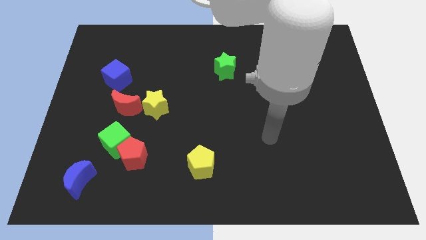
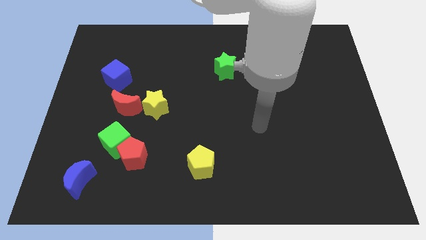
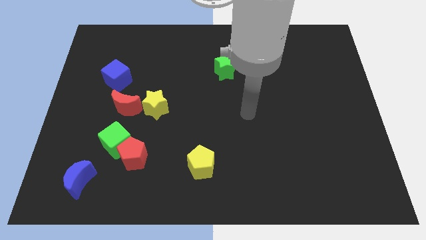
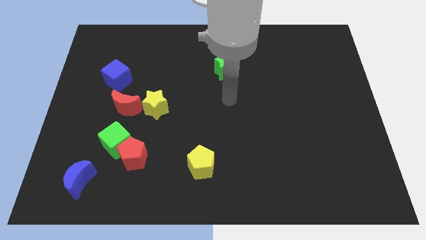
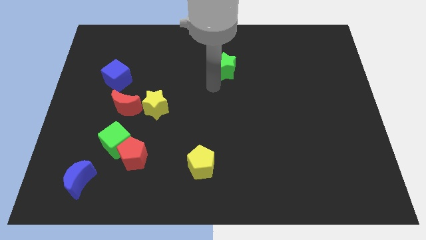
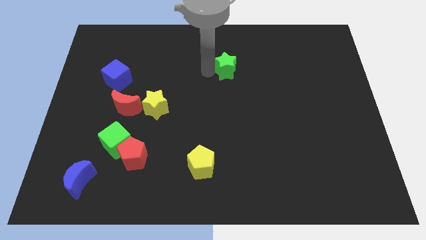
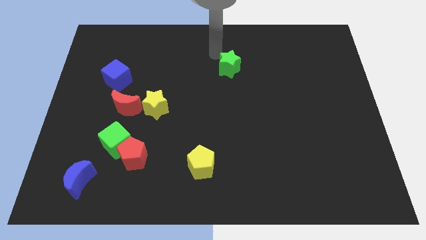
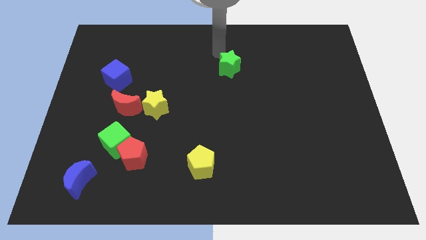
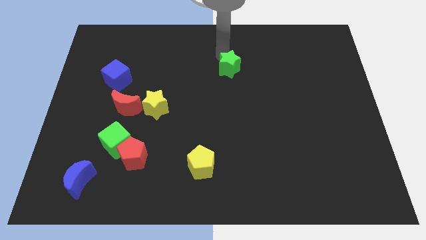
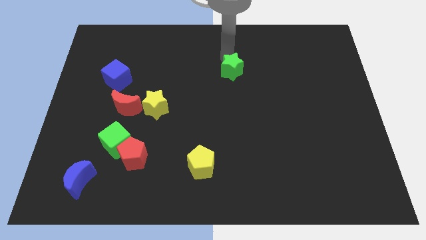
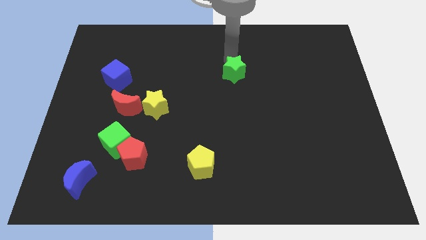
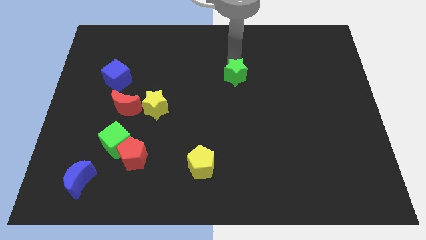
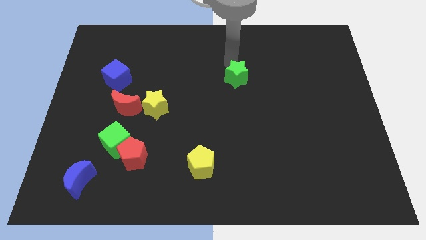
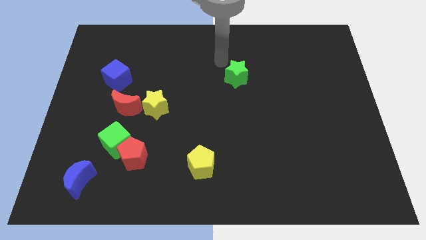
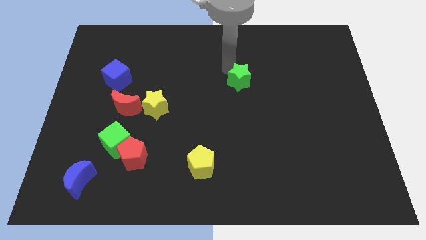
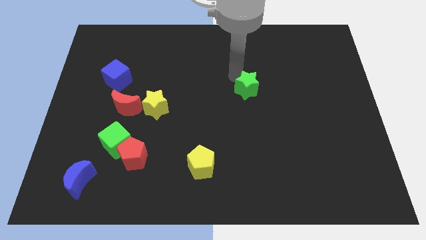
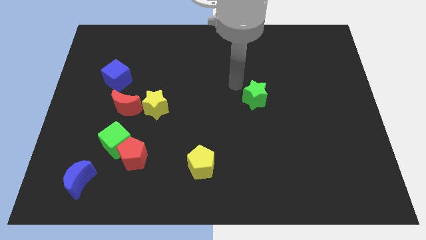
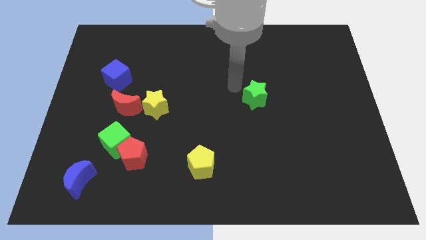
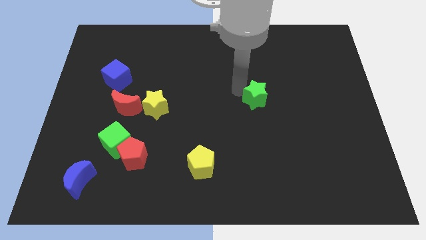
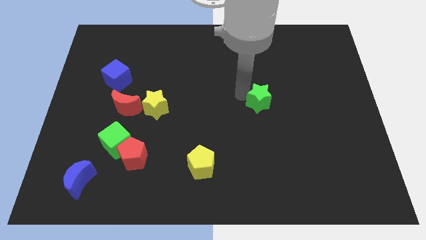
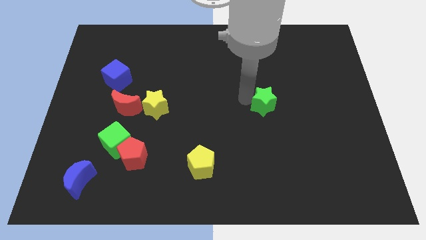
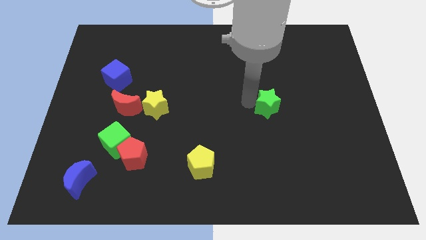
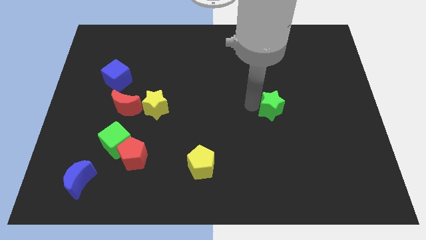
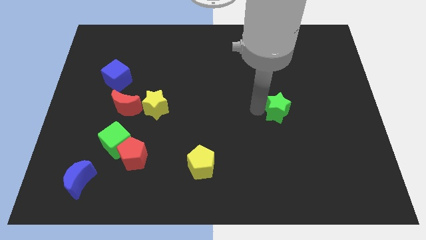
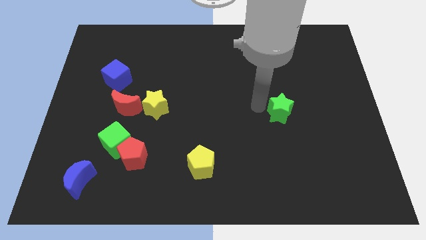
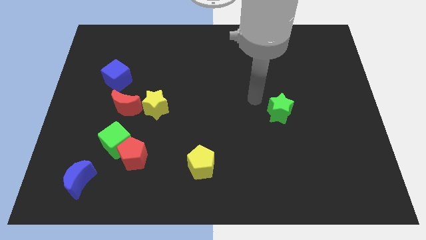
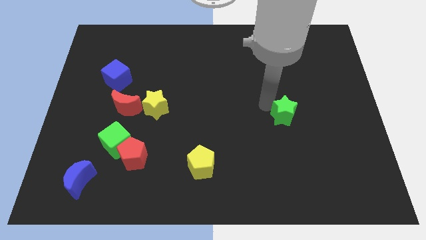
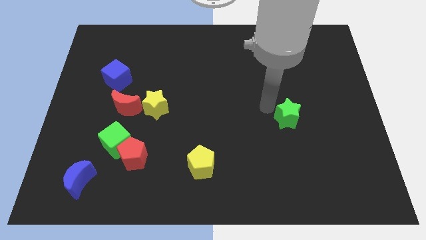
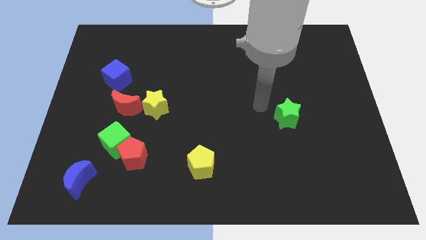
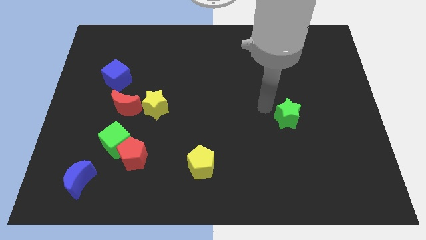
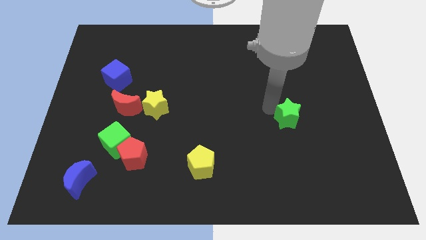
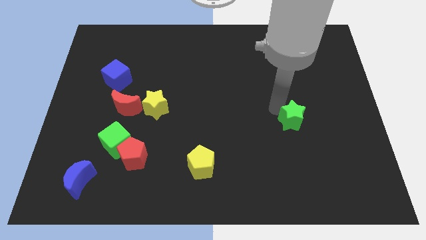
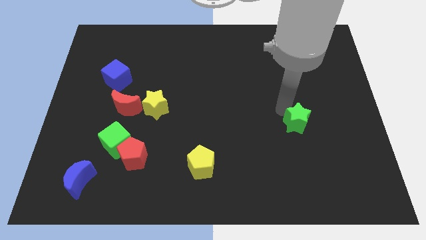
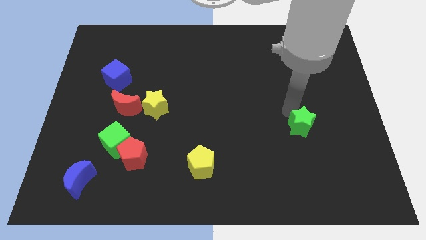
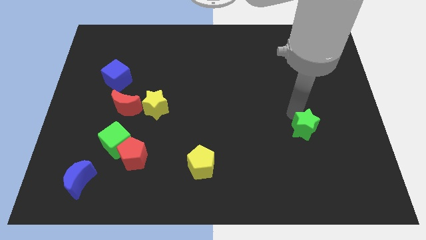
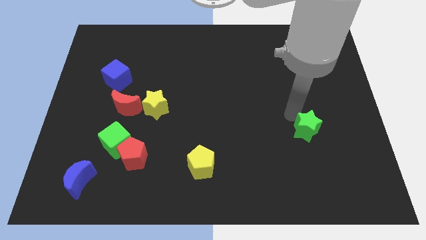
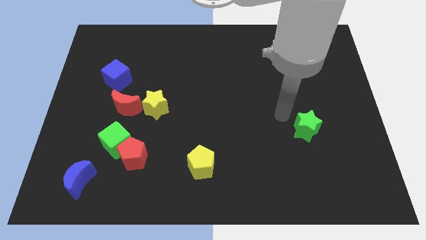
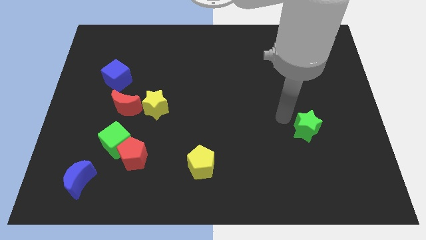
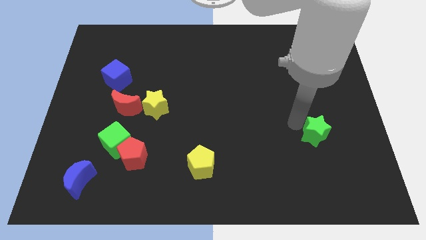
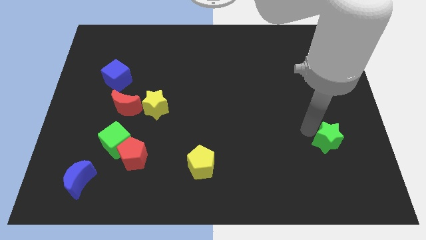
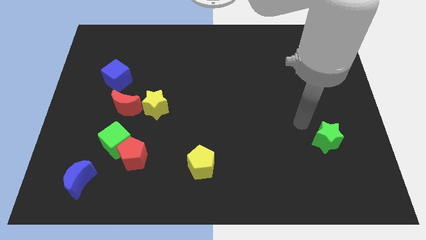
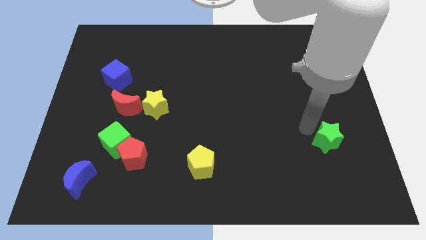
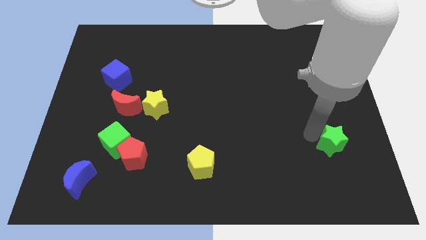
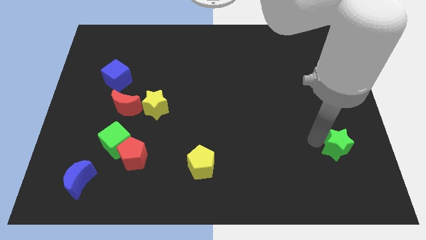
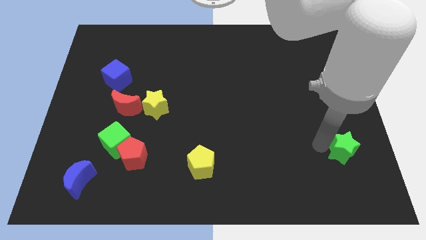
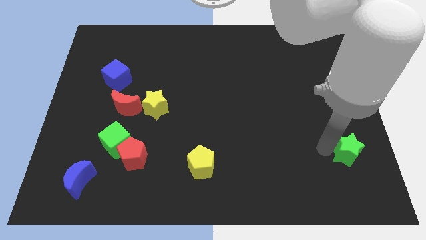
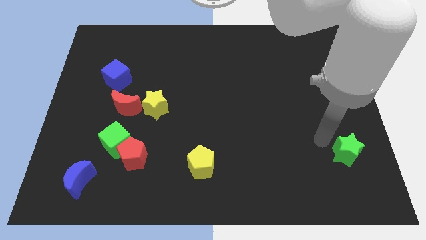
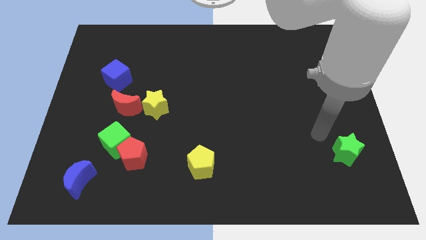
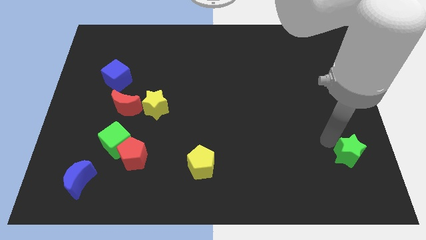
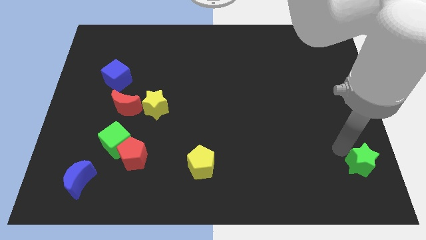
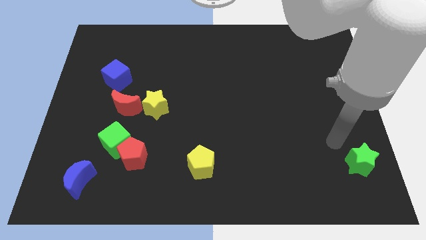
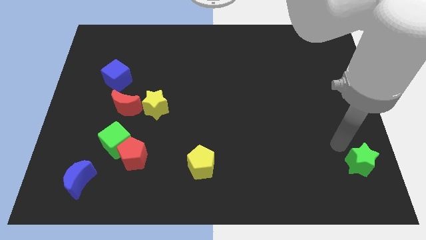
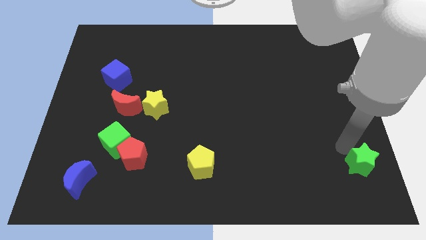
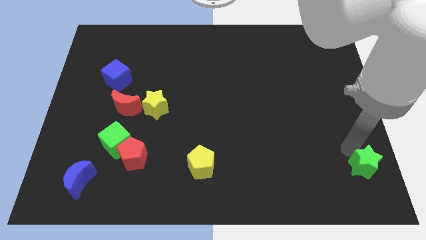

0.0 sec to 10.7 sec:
slide the green star to the lower right corner

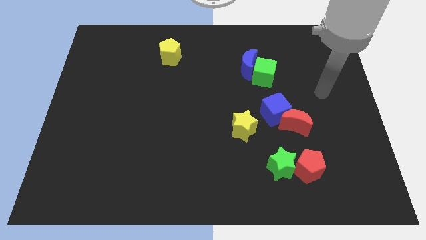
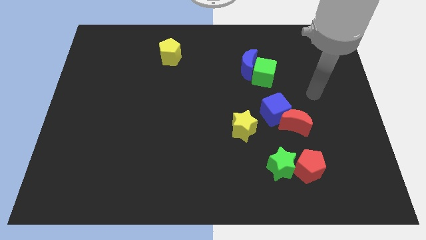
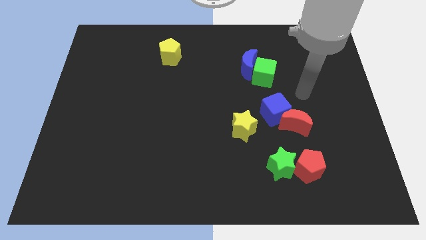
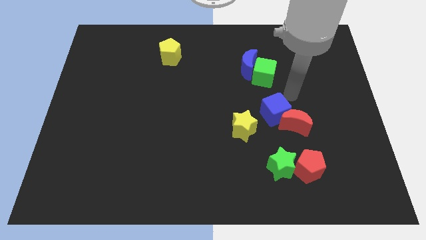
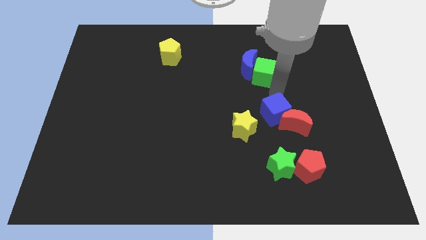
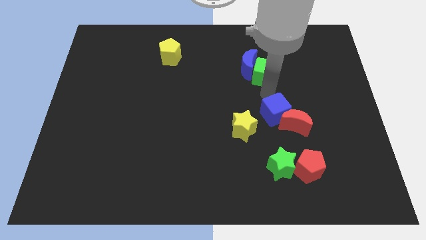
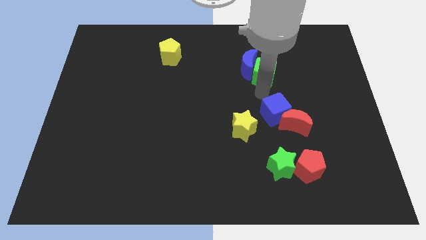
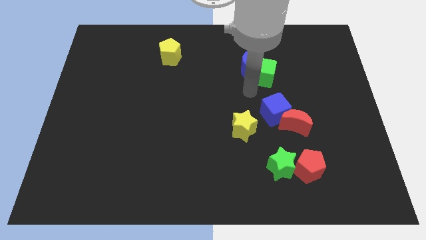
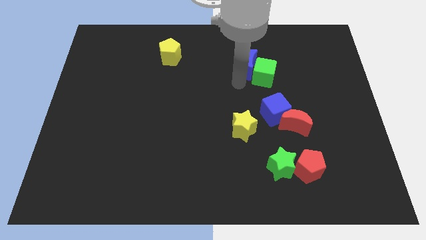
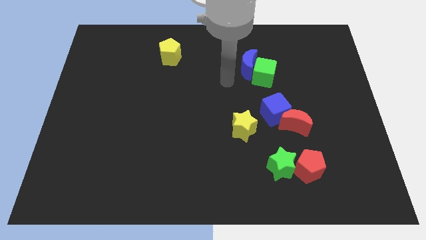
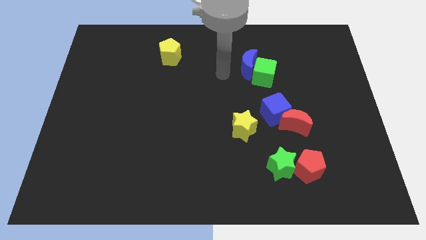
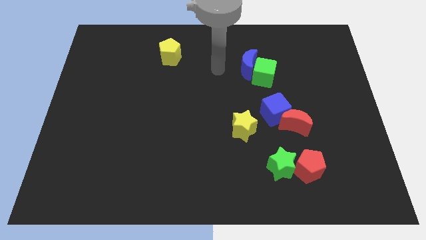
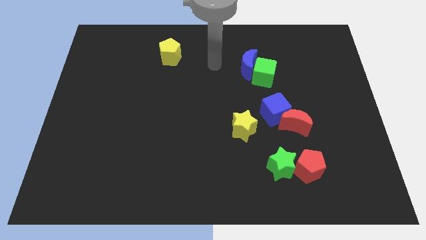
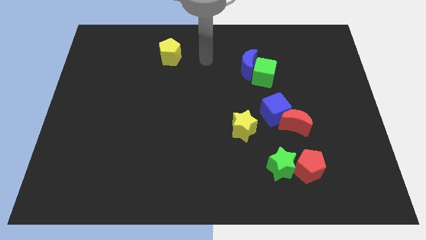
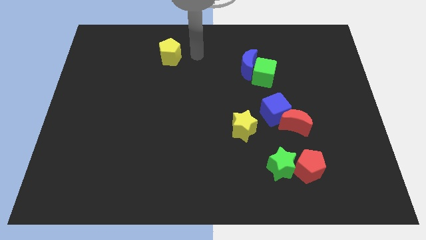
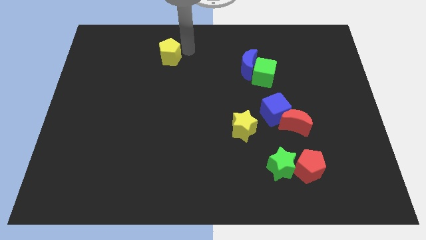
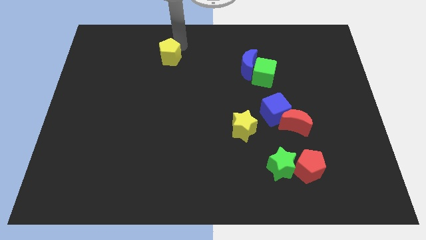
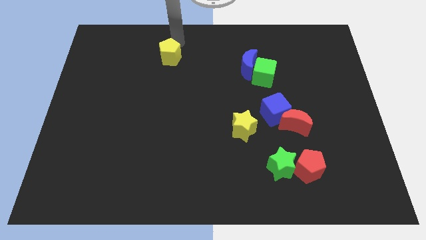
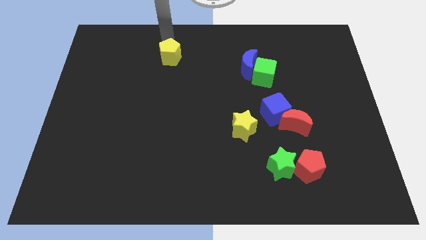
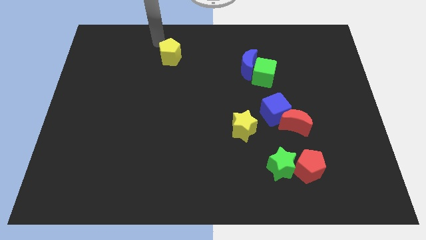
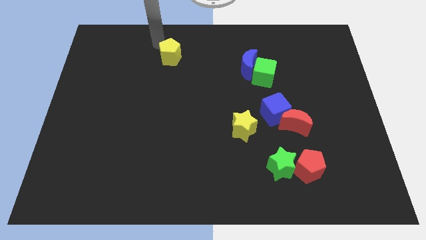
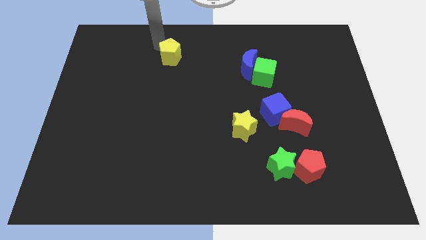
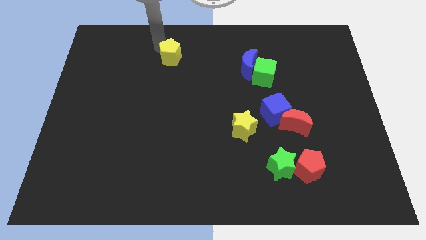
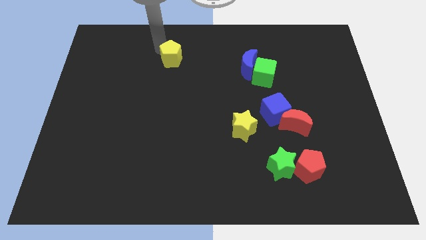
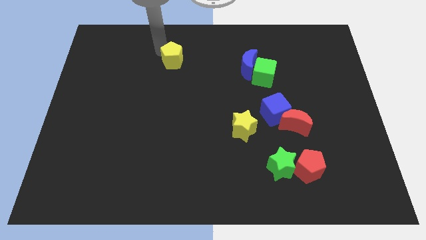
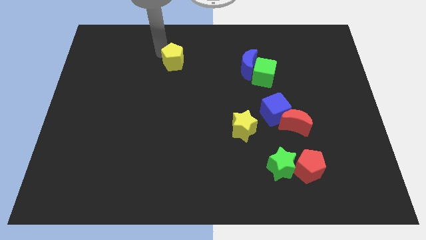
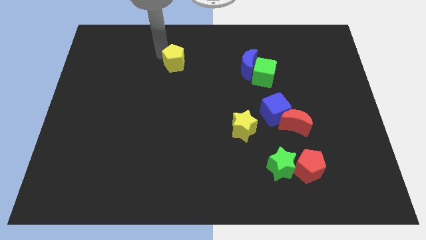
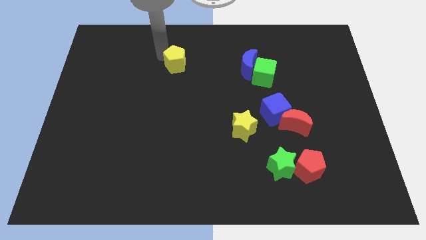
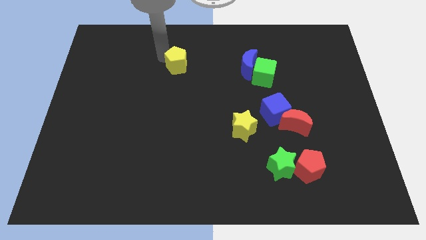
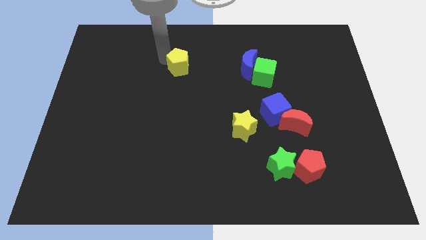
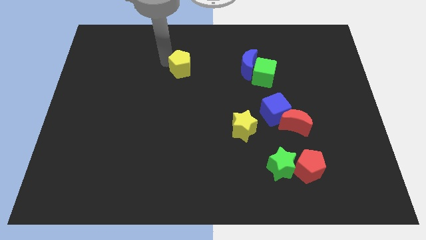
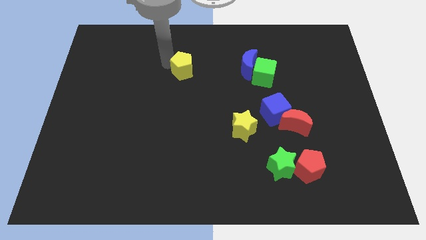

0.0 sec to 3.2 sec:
move the yellow pentagon to the middle
